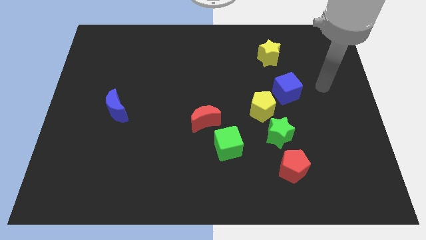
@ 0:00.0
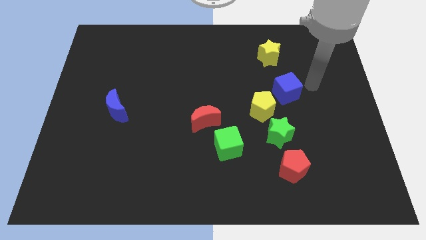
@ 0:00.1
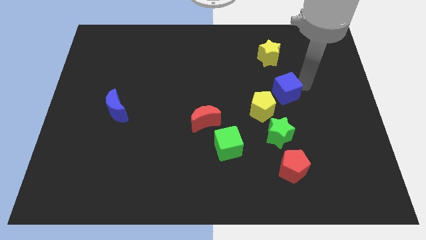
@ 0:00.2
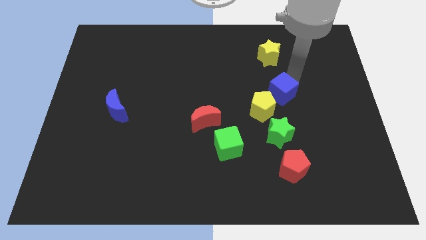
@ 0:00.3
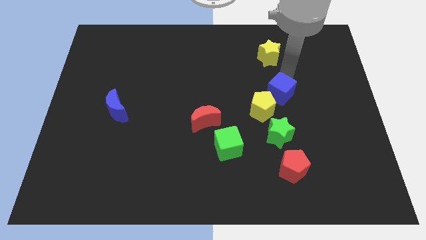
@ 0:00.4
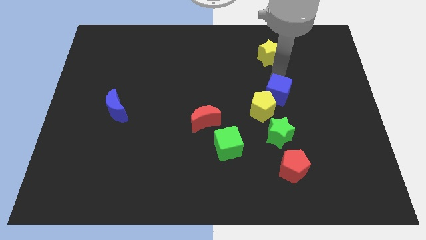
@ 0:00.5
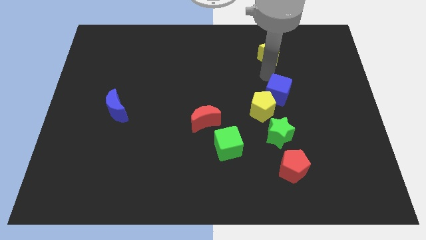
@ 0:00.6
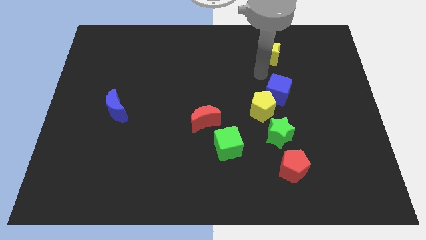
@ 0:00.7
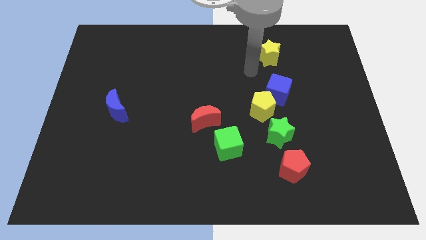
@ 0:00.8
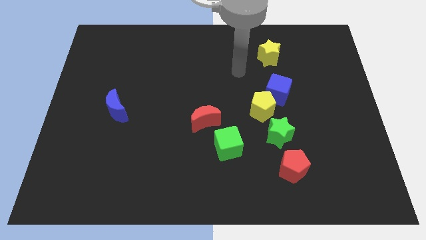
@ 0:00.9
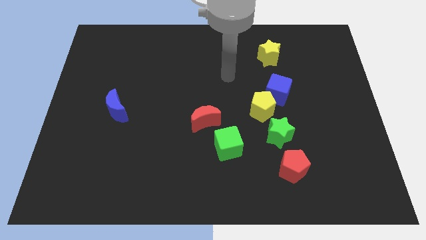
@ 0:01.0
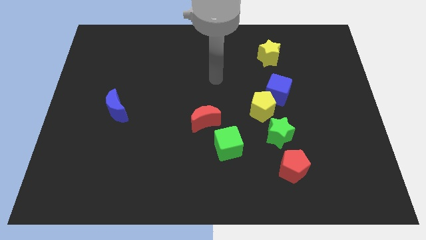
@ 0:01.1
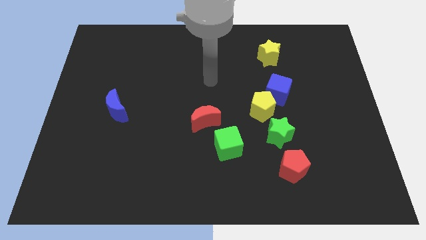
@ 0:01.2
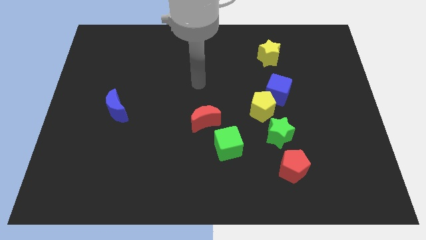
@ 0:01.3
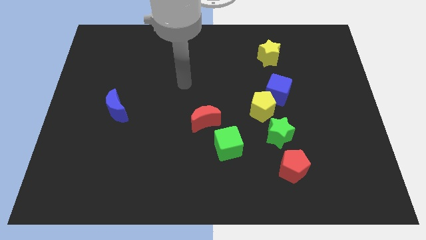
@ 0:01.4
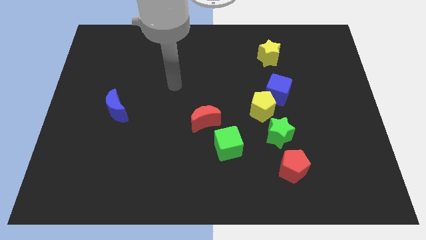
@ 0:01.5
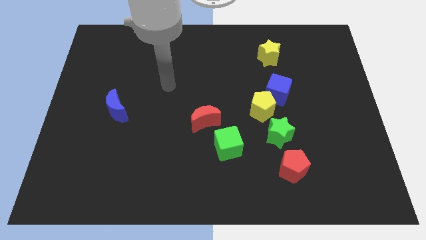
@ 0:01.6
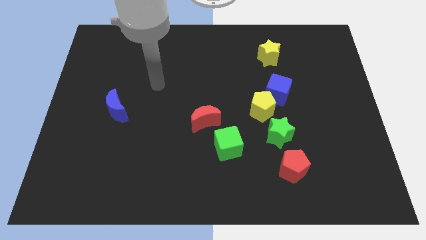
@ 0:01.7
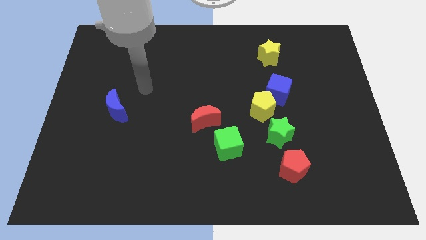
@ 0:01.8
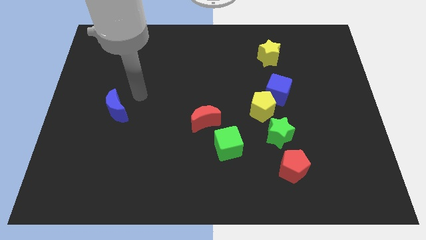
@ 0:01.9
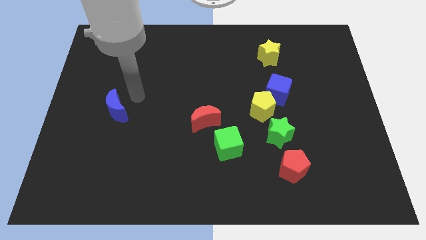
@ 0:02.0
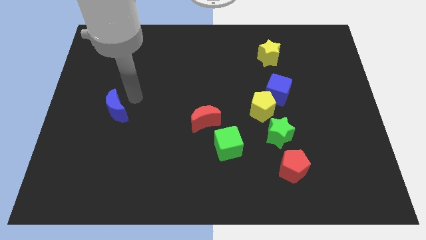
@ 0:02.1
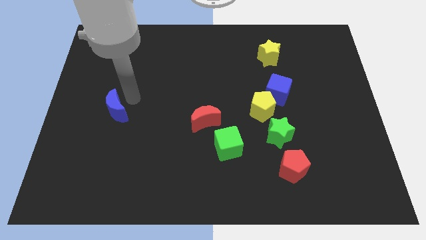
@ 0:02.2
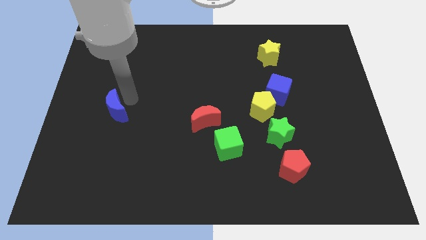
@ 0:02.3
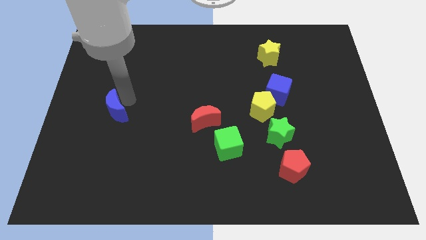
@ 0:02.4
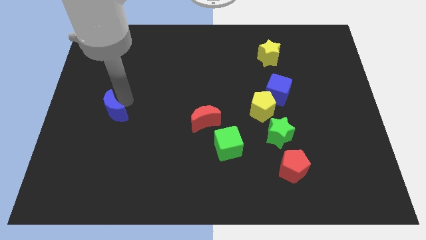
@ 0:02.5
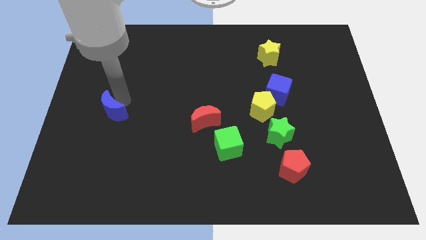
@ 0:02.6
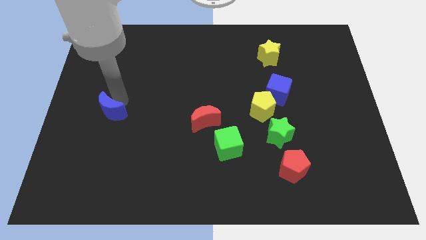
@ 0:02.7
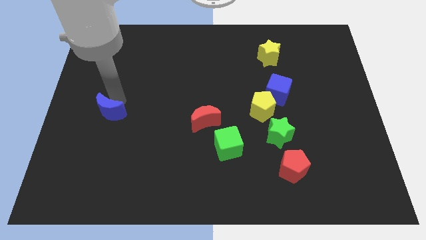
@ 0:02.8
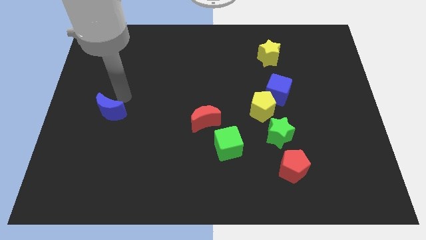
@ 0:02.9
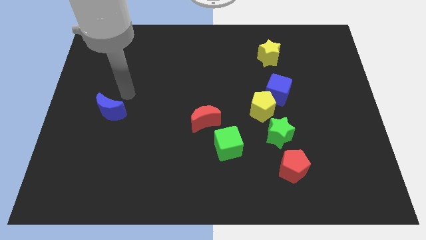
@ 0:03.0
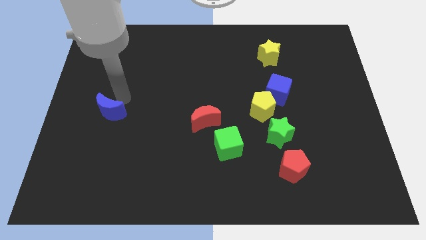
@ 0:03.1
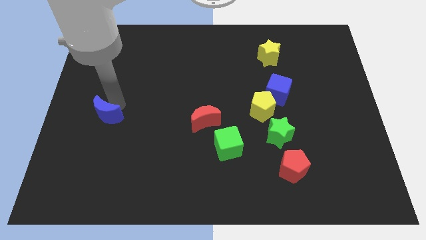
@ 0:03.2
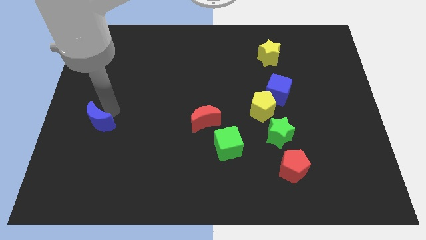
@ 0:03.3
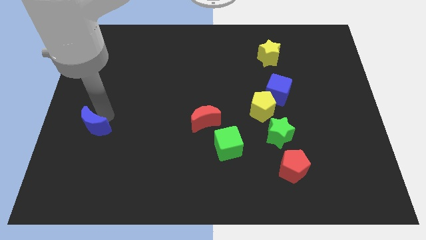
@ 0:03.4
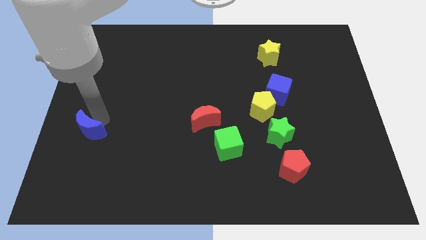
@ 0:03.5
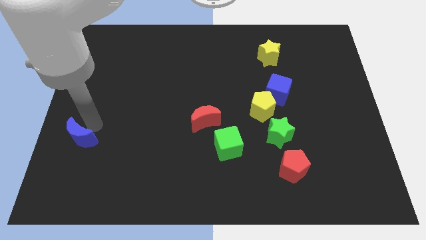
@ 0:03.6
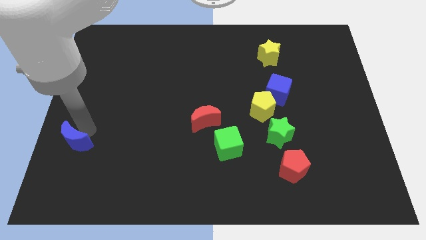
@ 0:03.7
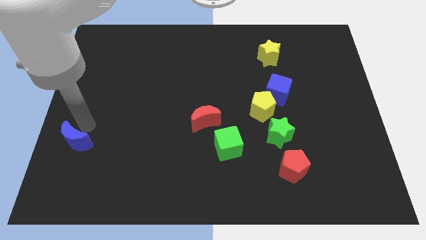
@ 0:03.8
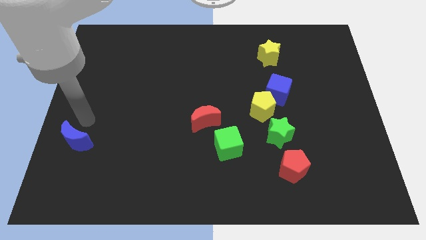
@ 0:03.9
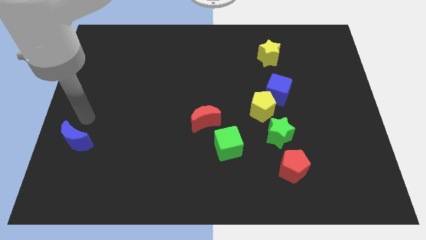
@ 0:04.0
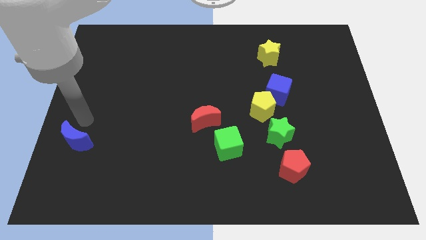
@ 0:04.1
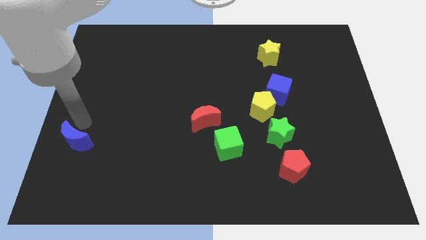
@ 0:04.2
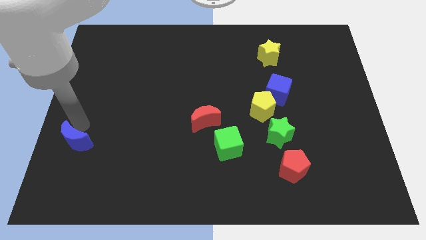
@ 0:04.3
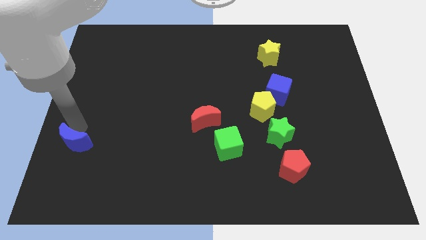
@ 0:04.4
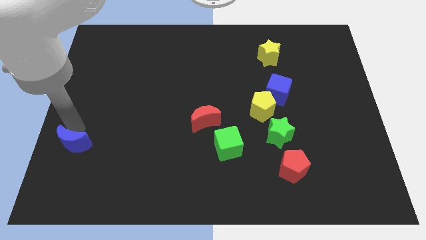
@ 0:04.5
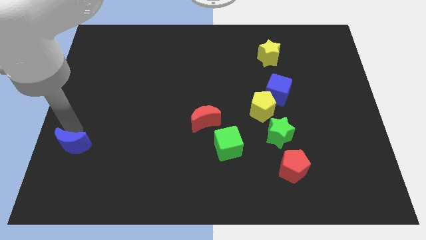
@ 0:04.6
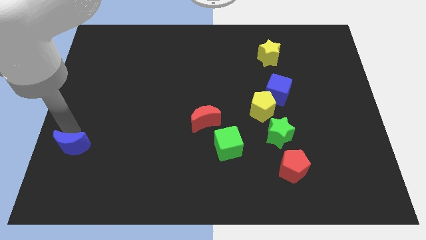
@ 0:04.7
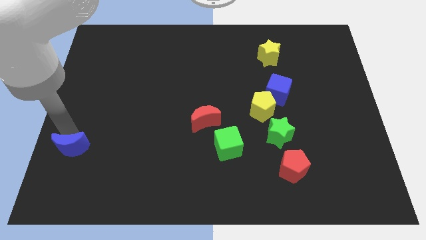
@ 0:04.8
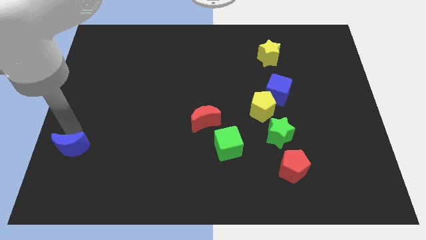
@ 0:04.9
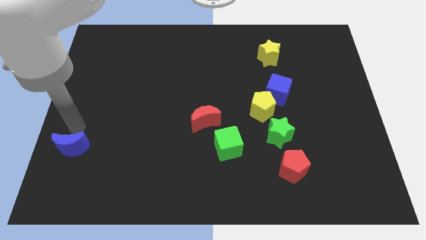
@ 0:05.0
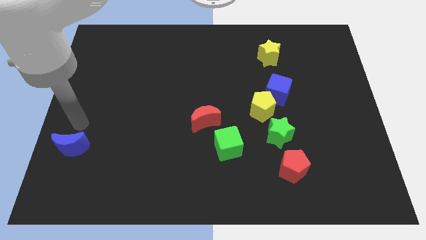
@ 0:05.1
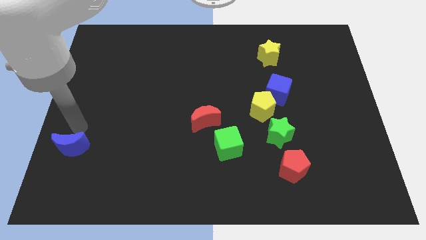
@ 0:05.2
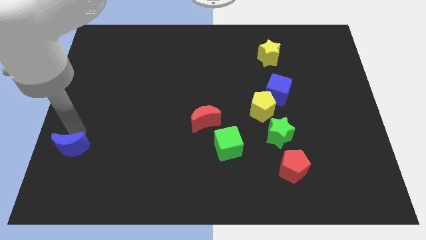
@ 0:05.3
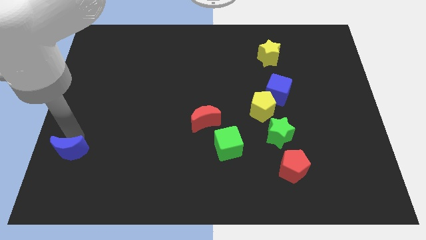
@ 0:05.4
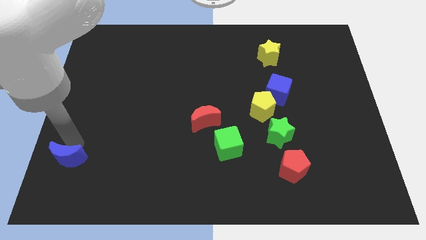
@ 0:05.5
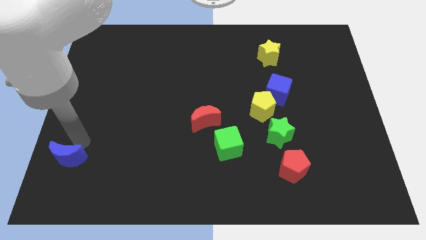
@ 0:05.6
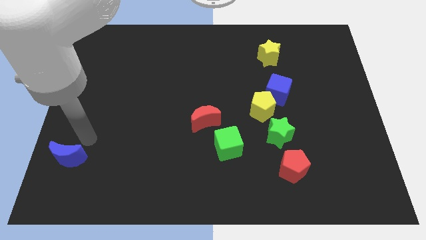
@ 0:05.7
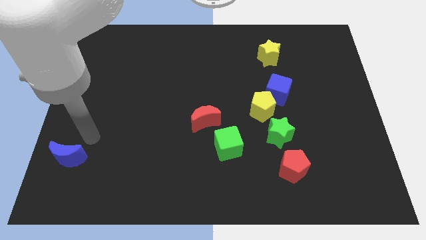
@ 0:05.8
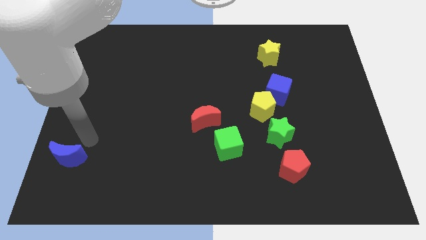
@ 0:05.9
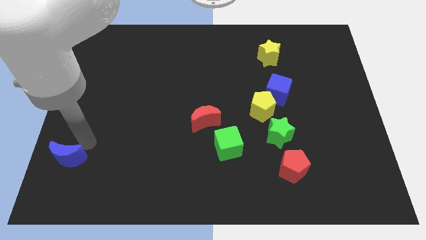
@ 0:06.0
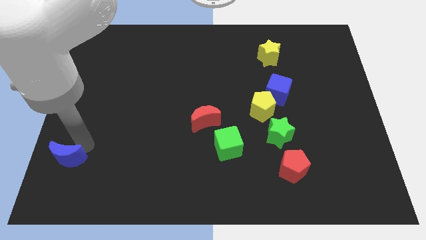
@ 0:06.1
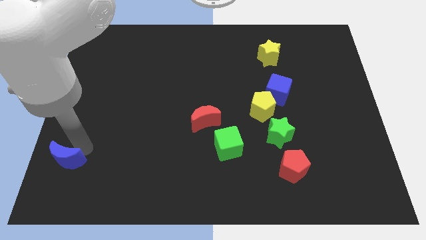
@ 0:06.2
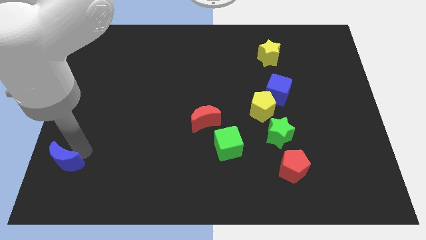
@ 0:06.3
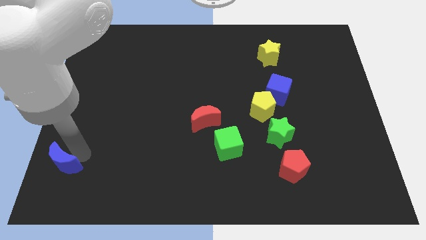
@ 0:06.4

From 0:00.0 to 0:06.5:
put the blue moon to the bottom left
